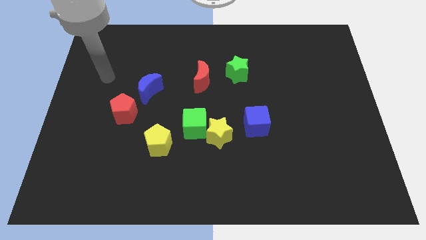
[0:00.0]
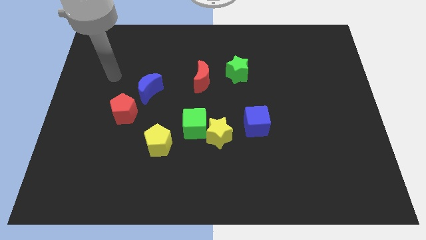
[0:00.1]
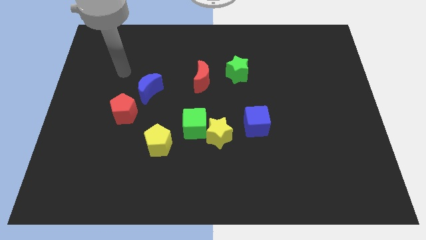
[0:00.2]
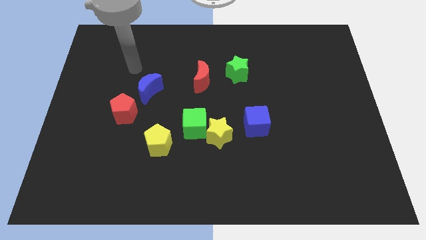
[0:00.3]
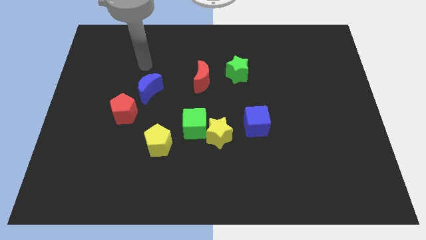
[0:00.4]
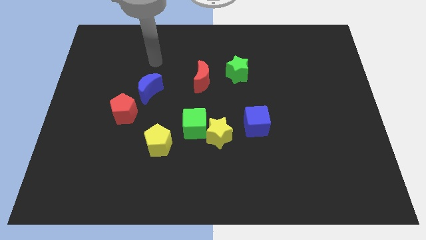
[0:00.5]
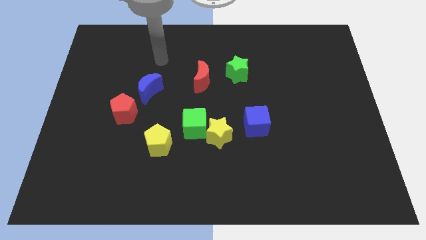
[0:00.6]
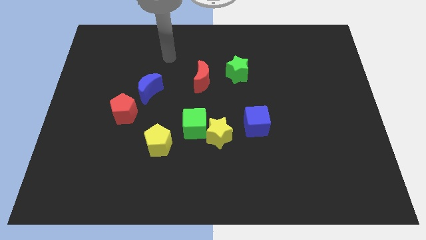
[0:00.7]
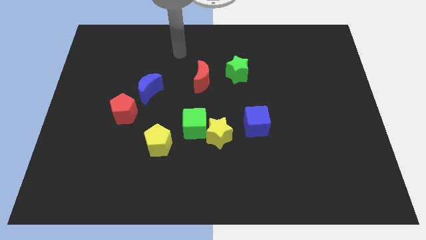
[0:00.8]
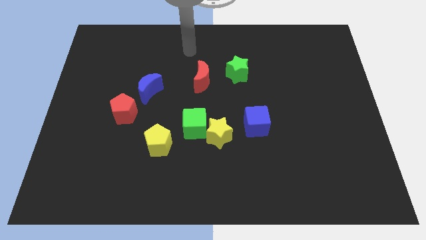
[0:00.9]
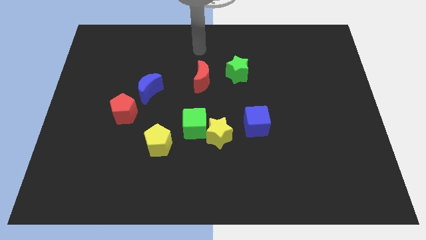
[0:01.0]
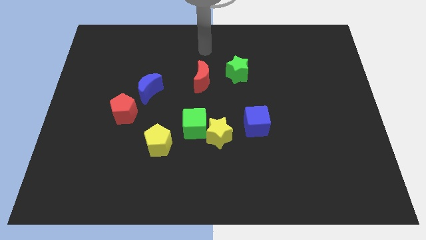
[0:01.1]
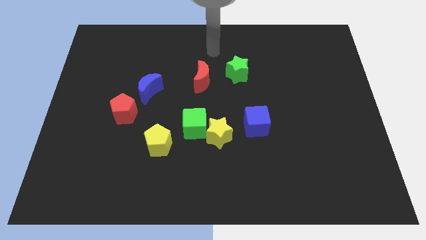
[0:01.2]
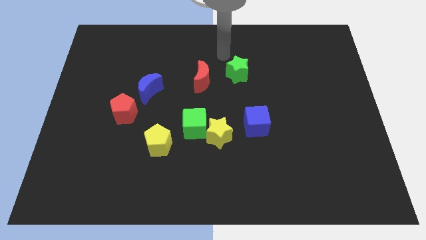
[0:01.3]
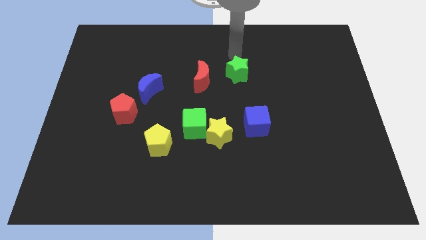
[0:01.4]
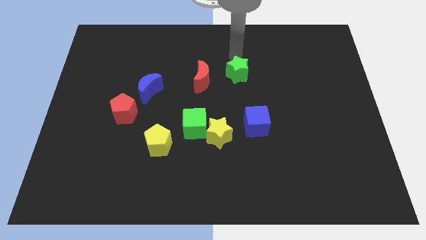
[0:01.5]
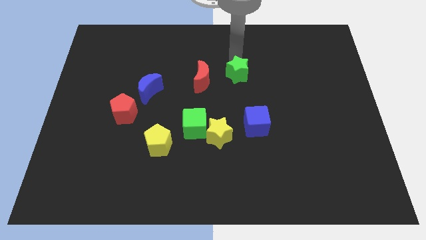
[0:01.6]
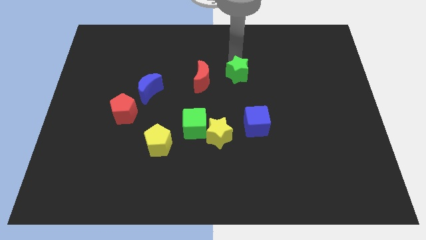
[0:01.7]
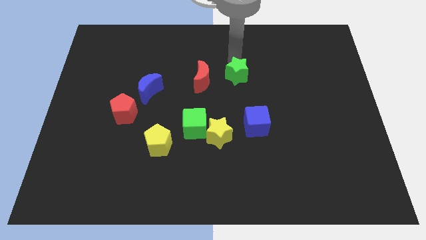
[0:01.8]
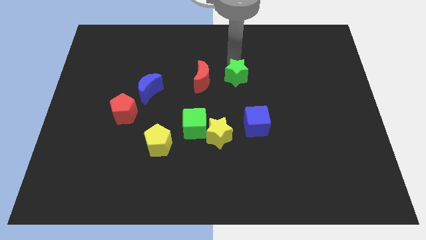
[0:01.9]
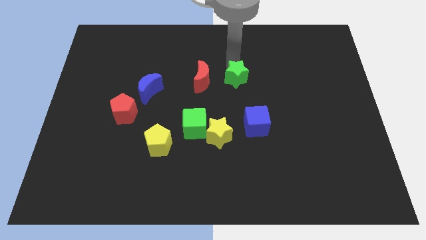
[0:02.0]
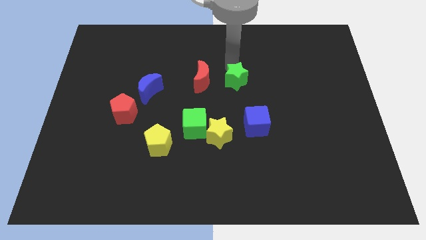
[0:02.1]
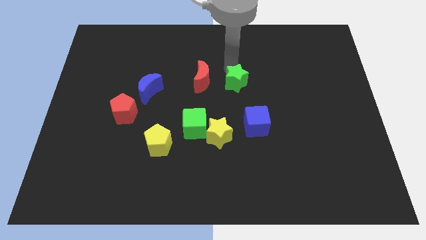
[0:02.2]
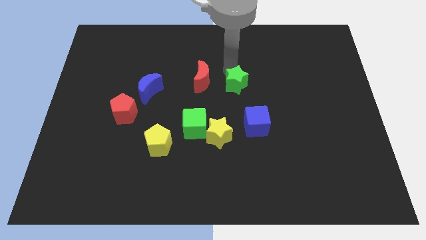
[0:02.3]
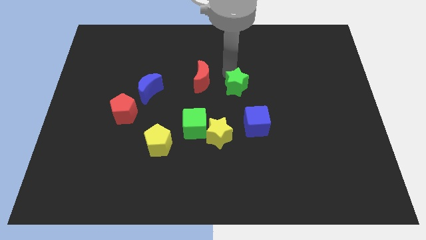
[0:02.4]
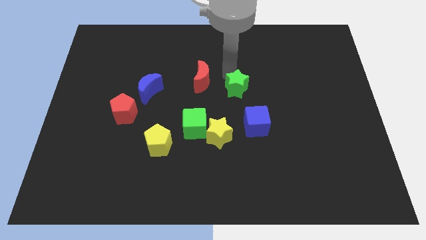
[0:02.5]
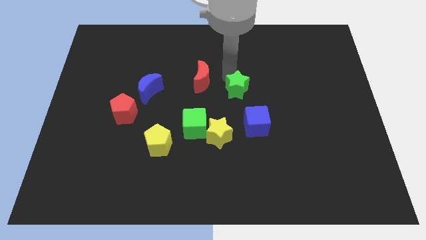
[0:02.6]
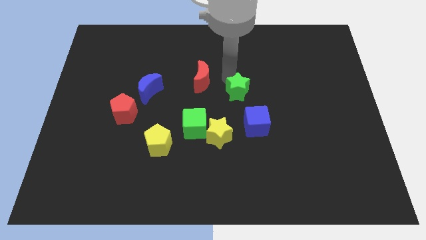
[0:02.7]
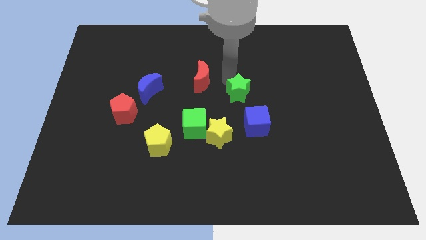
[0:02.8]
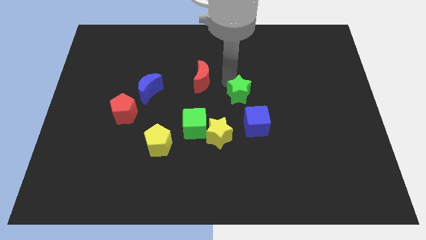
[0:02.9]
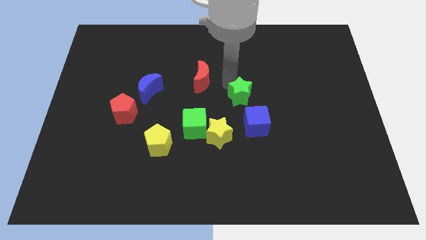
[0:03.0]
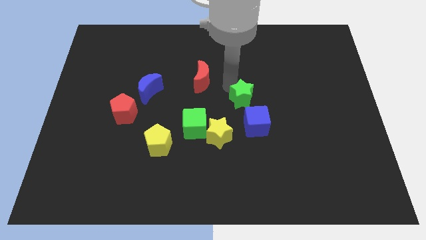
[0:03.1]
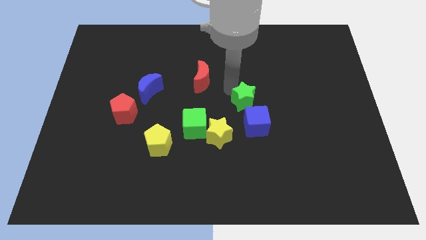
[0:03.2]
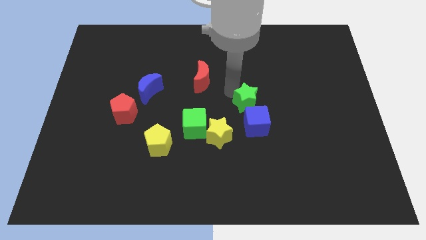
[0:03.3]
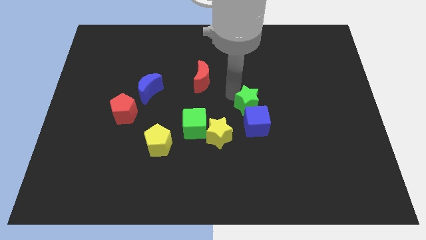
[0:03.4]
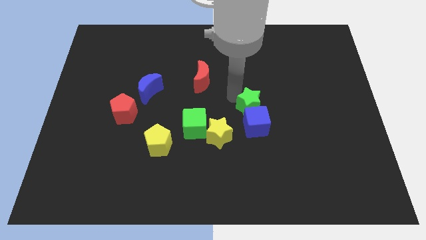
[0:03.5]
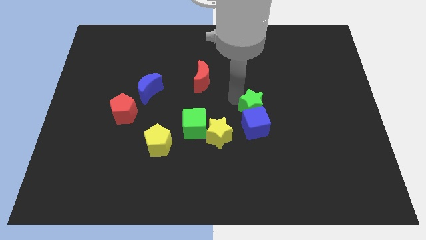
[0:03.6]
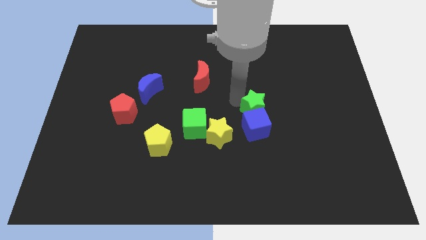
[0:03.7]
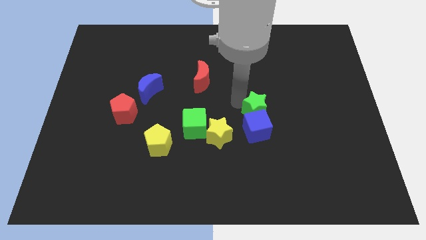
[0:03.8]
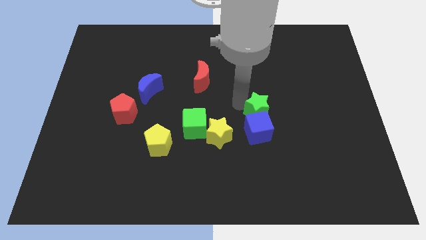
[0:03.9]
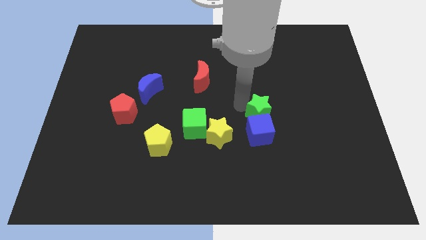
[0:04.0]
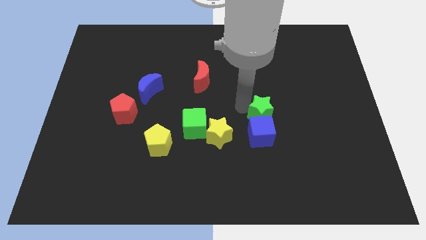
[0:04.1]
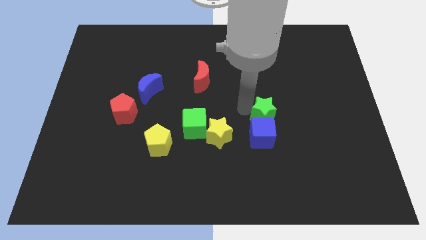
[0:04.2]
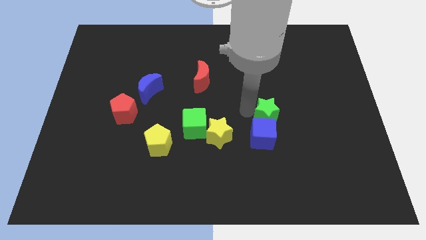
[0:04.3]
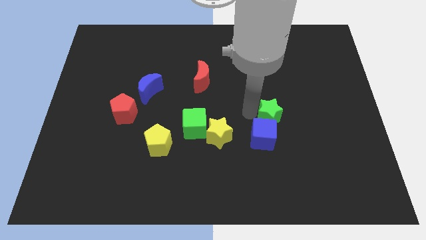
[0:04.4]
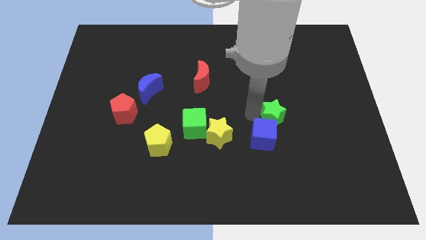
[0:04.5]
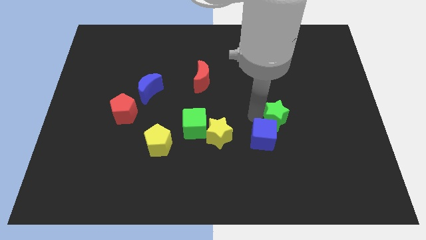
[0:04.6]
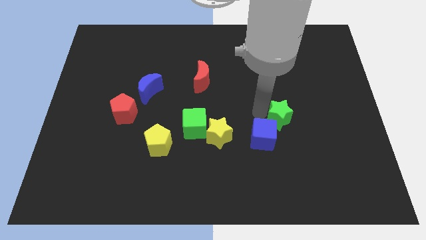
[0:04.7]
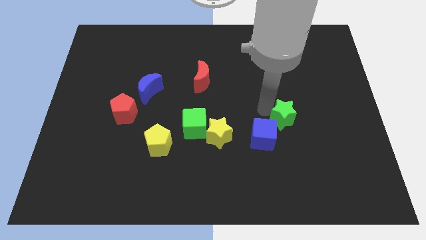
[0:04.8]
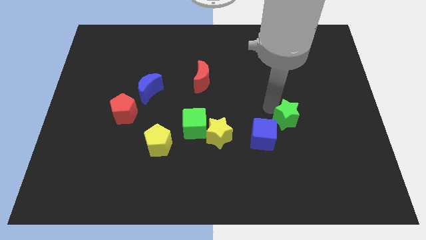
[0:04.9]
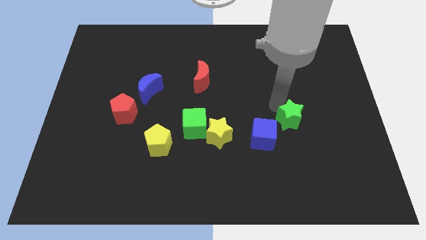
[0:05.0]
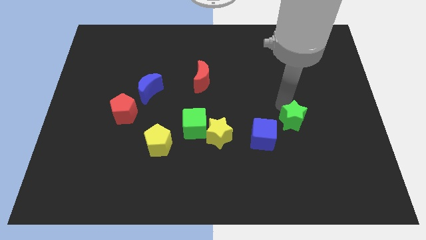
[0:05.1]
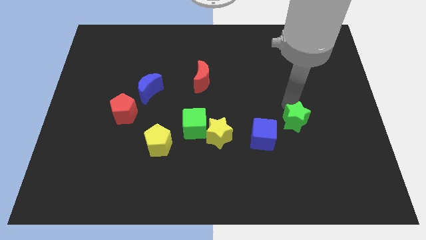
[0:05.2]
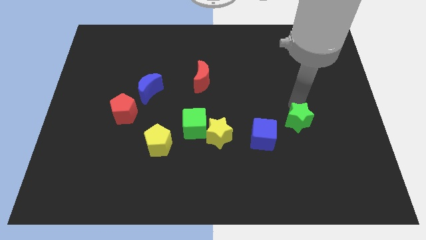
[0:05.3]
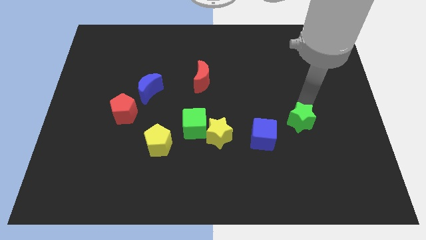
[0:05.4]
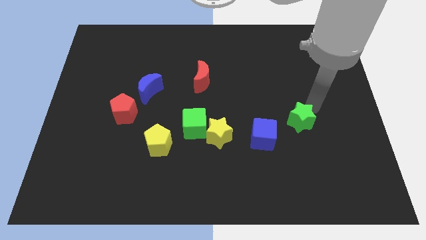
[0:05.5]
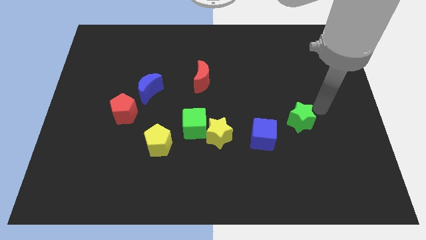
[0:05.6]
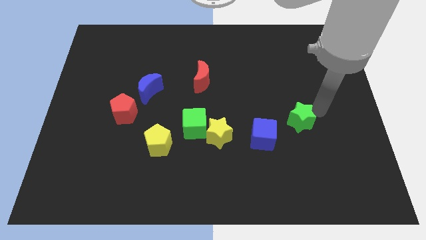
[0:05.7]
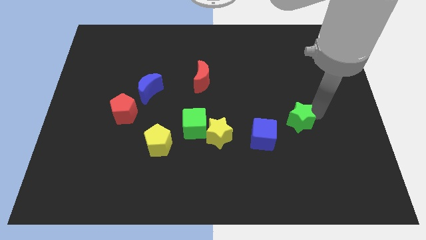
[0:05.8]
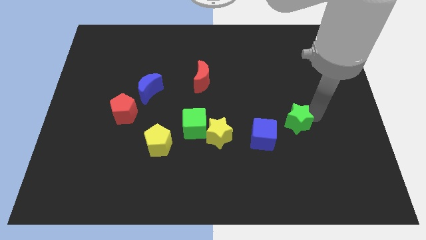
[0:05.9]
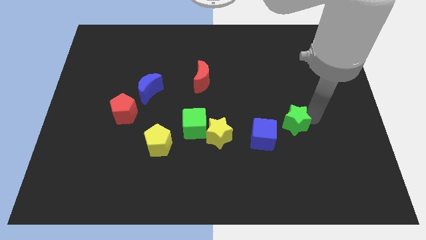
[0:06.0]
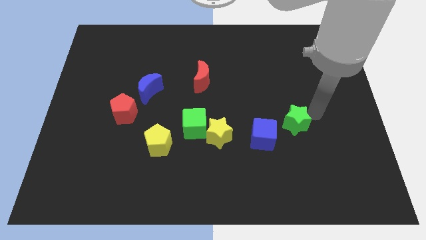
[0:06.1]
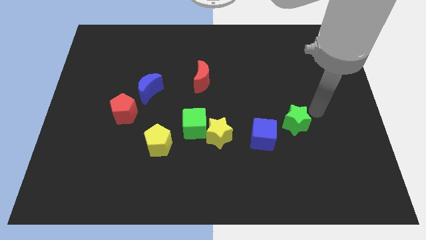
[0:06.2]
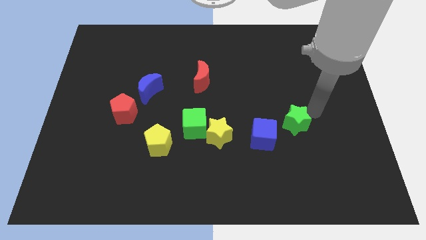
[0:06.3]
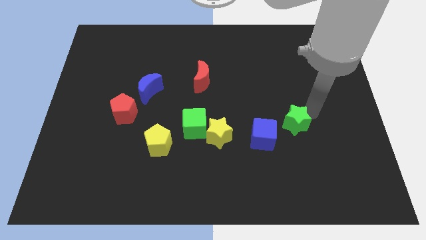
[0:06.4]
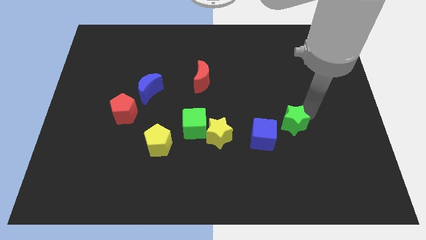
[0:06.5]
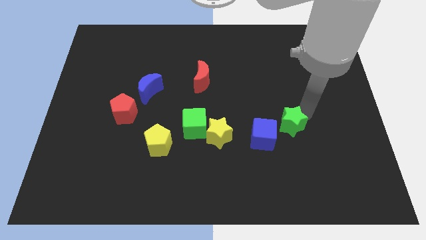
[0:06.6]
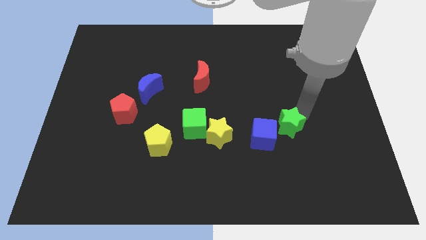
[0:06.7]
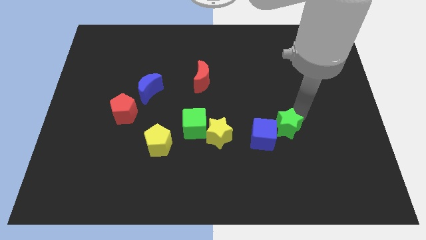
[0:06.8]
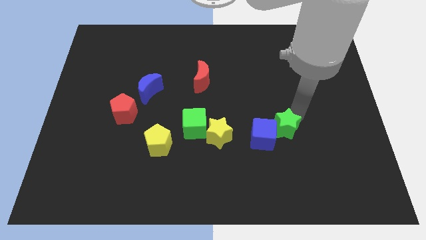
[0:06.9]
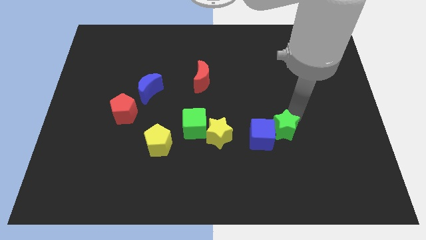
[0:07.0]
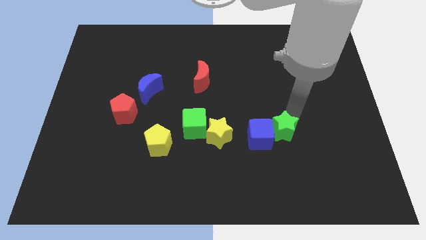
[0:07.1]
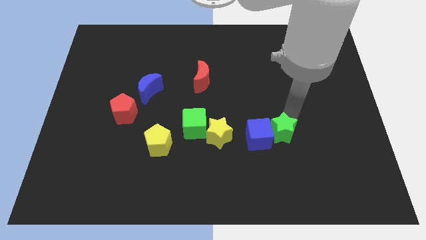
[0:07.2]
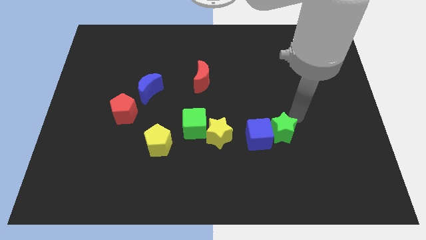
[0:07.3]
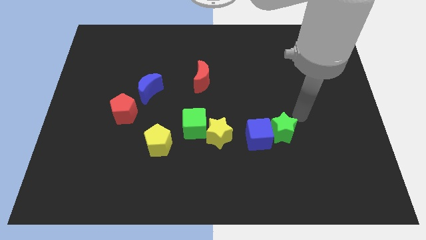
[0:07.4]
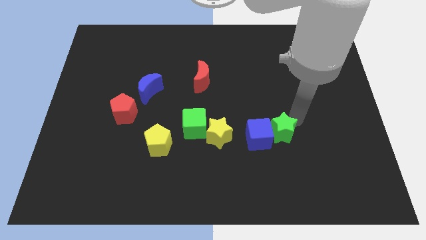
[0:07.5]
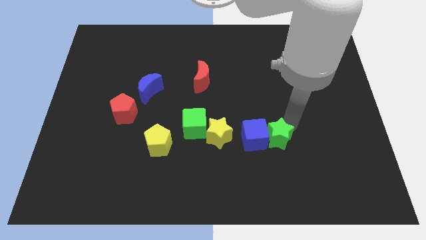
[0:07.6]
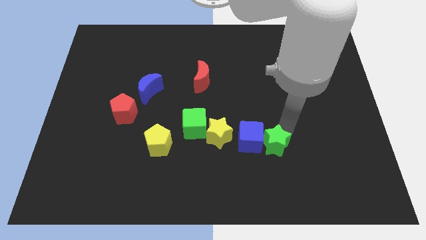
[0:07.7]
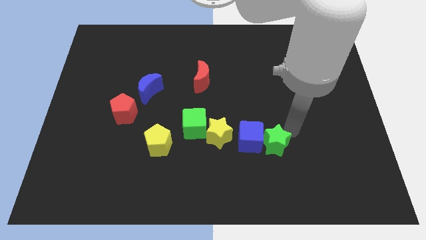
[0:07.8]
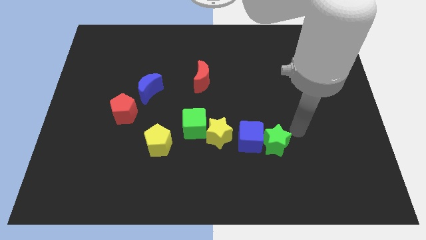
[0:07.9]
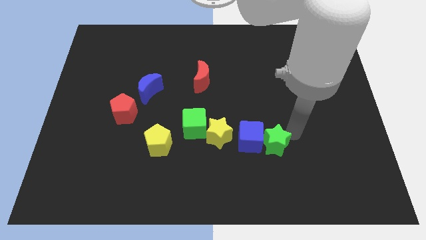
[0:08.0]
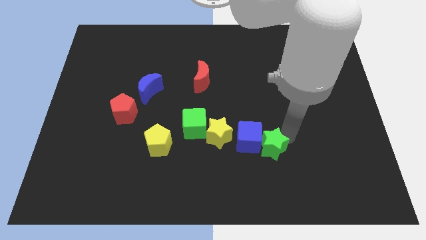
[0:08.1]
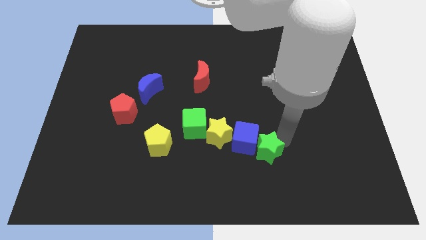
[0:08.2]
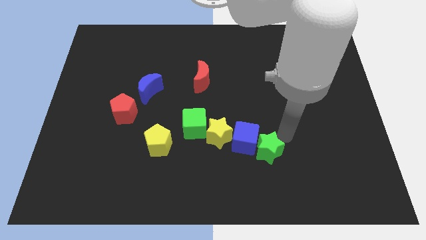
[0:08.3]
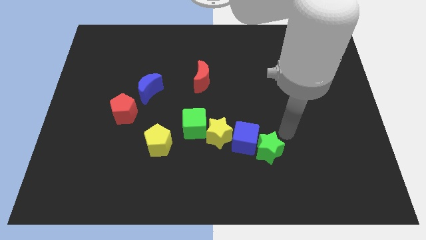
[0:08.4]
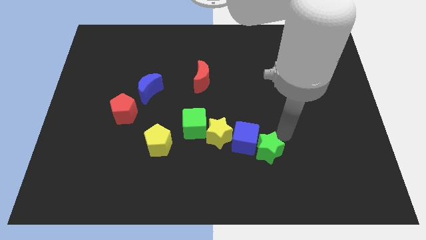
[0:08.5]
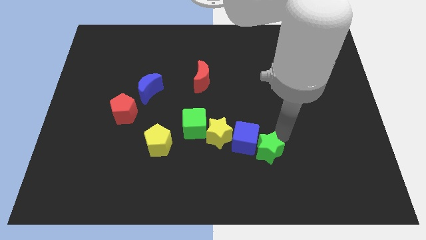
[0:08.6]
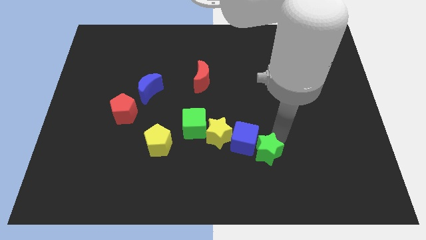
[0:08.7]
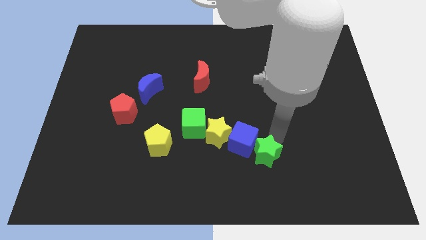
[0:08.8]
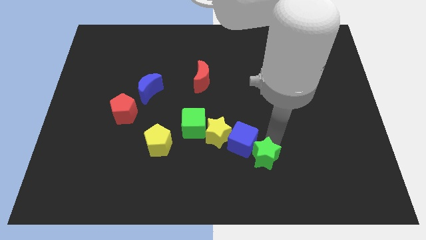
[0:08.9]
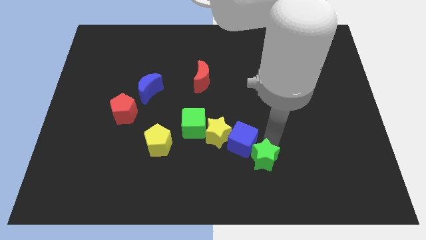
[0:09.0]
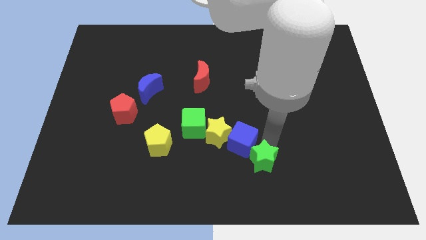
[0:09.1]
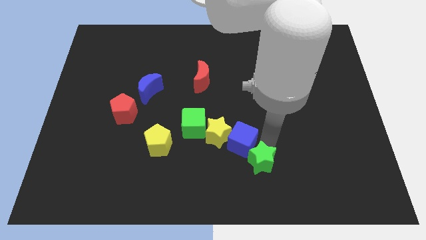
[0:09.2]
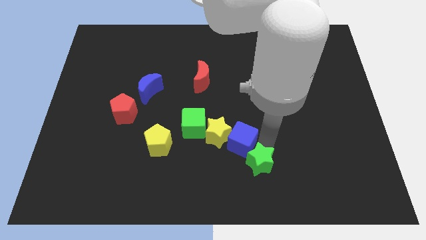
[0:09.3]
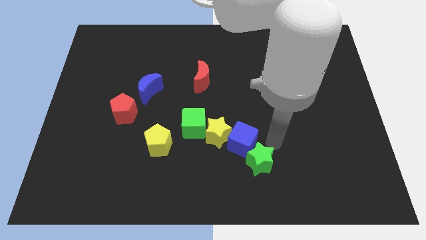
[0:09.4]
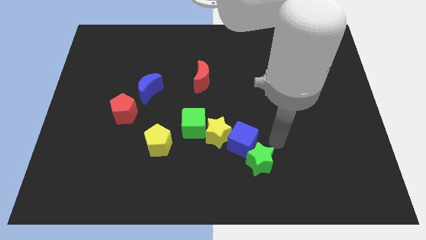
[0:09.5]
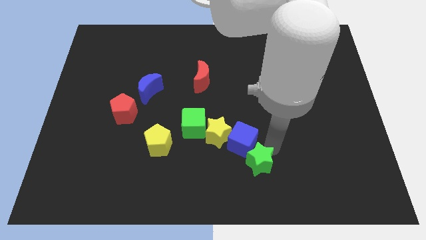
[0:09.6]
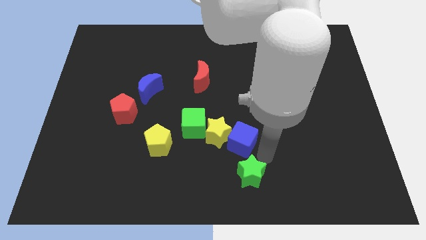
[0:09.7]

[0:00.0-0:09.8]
slide the green star to the bottom
